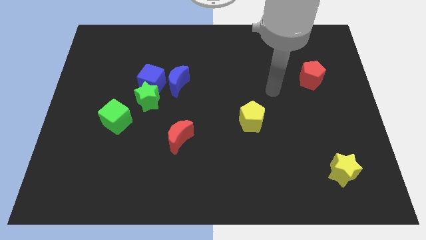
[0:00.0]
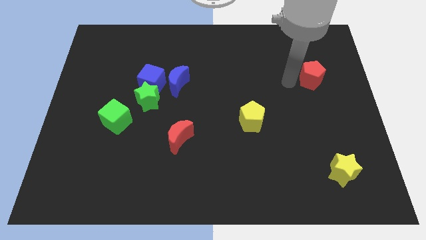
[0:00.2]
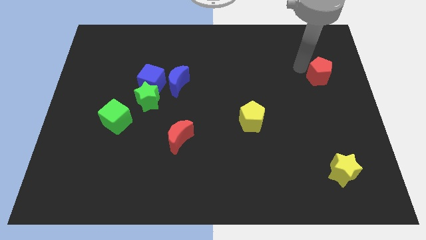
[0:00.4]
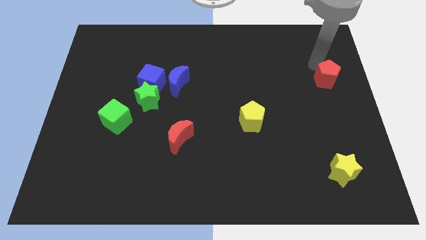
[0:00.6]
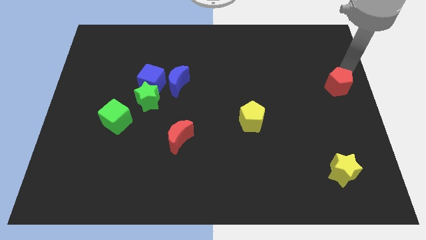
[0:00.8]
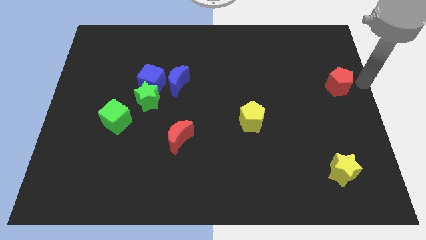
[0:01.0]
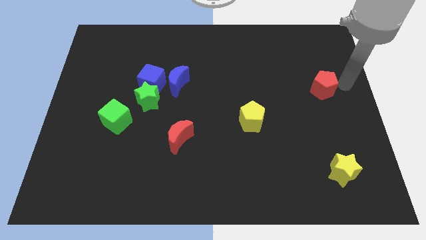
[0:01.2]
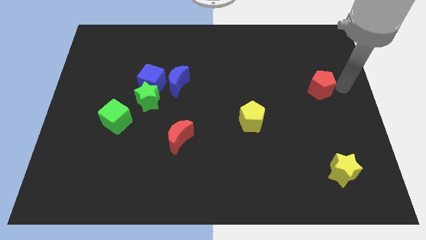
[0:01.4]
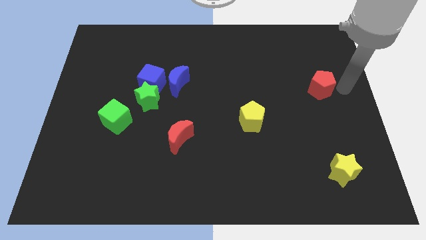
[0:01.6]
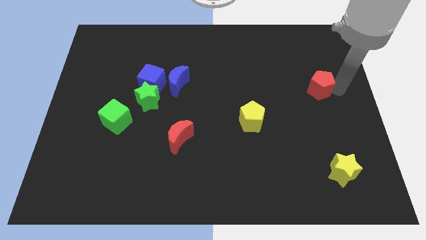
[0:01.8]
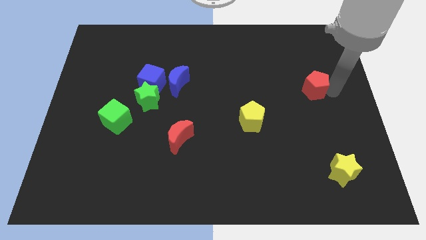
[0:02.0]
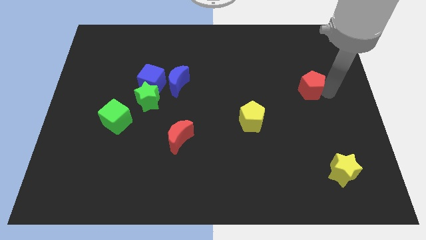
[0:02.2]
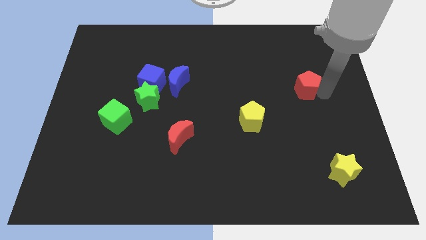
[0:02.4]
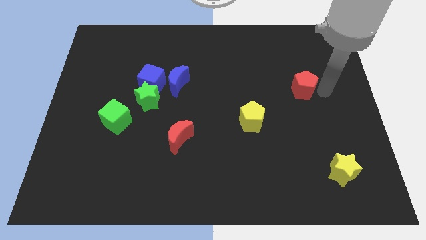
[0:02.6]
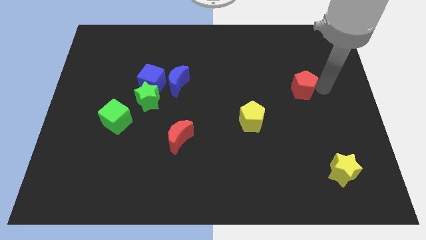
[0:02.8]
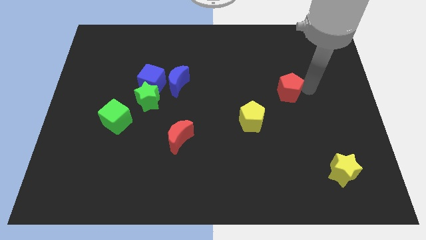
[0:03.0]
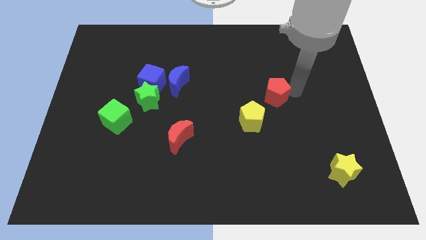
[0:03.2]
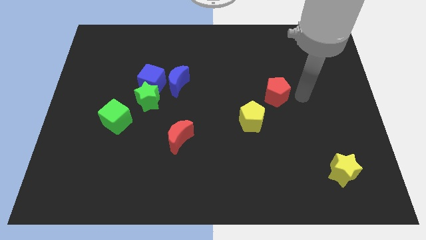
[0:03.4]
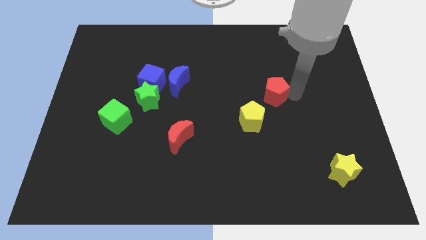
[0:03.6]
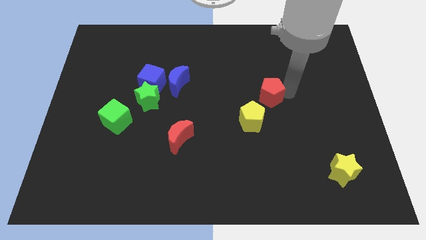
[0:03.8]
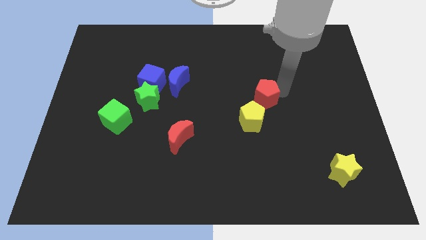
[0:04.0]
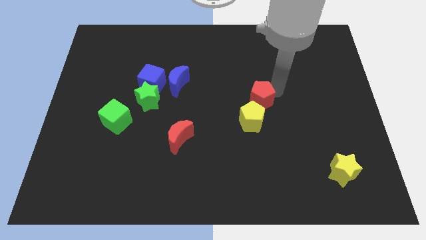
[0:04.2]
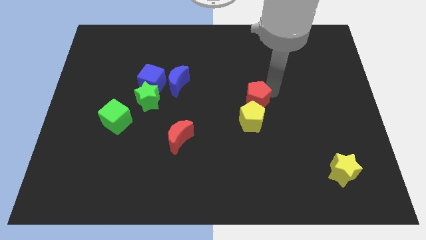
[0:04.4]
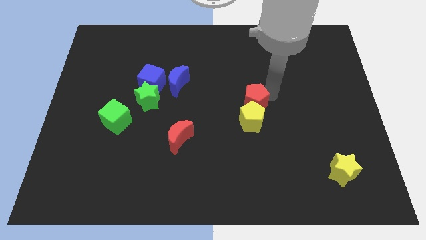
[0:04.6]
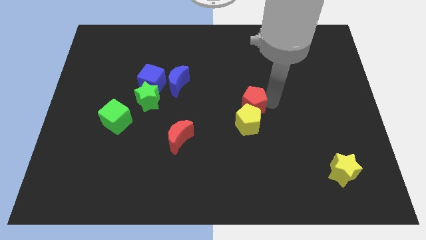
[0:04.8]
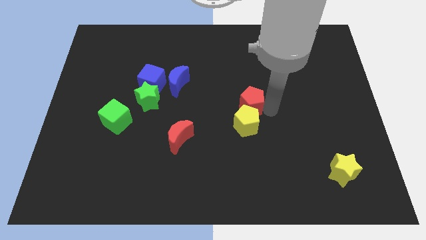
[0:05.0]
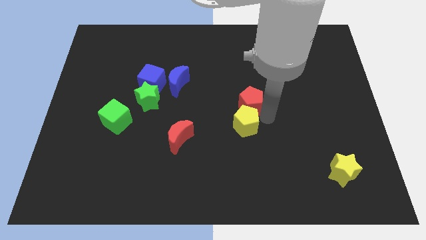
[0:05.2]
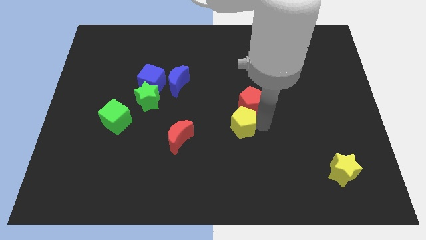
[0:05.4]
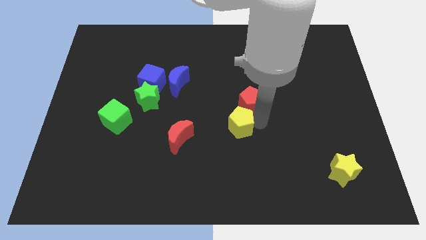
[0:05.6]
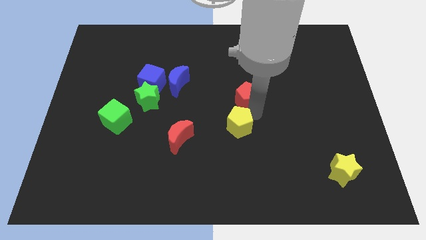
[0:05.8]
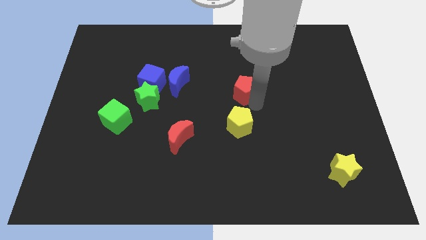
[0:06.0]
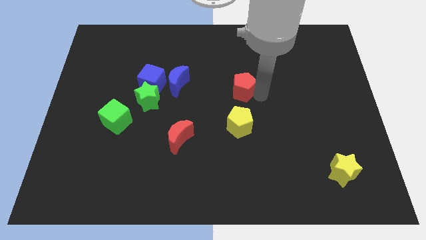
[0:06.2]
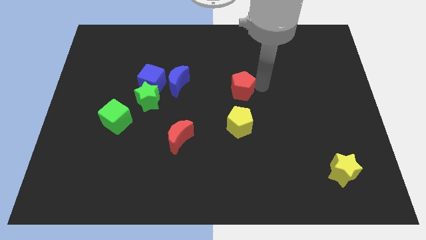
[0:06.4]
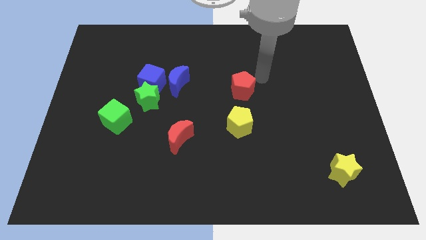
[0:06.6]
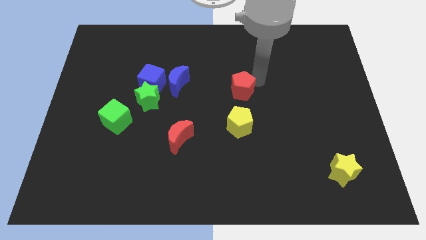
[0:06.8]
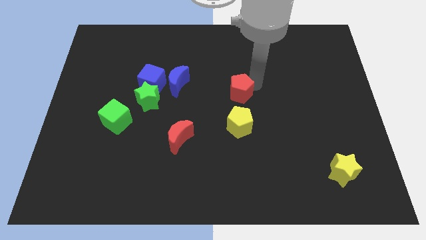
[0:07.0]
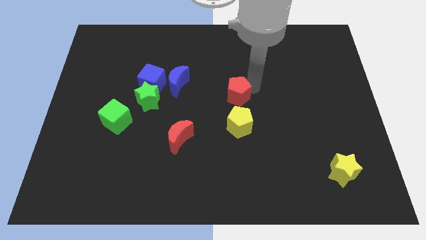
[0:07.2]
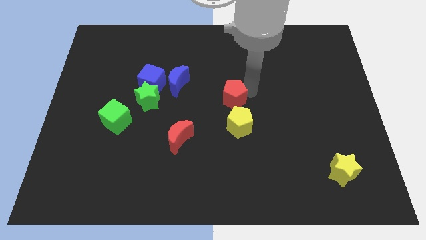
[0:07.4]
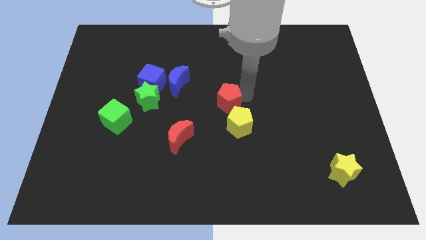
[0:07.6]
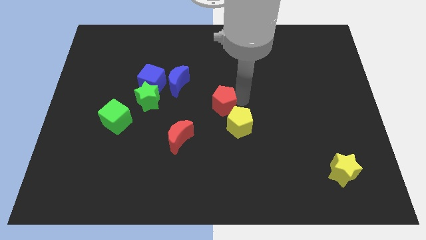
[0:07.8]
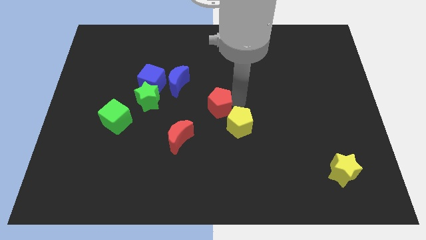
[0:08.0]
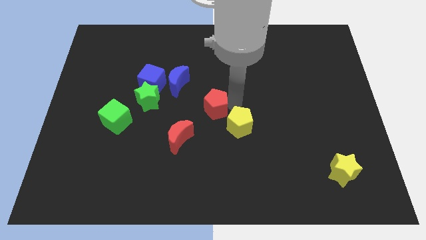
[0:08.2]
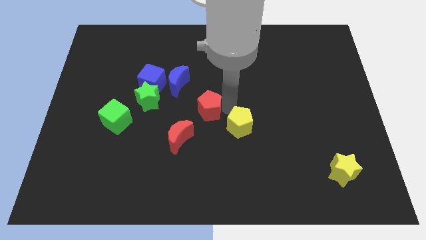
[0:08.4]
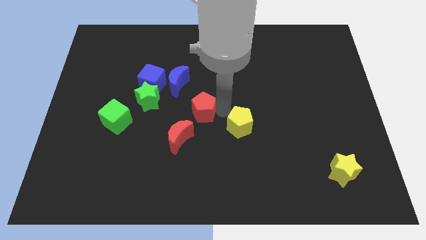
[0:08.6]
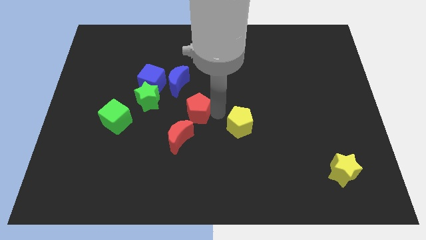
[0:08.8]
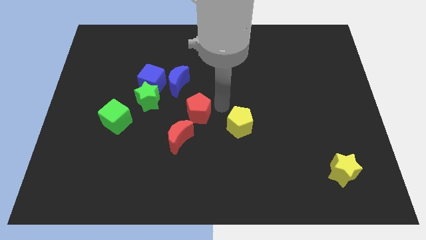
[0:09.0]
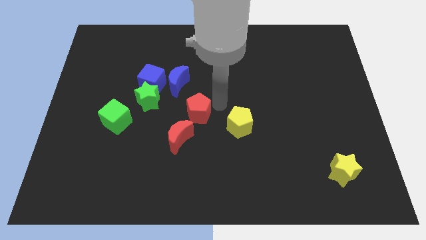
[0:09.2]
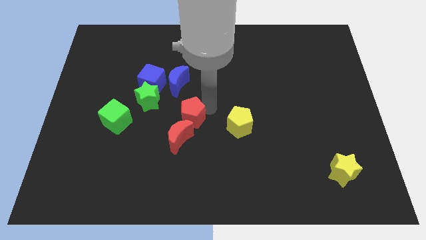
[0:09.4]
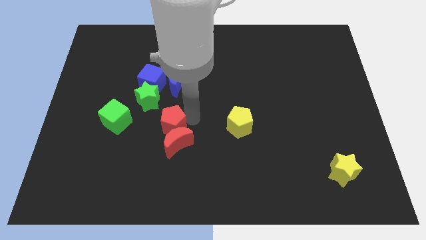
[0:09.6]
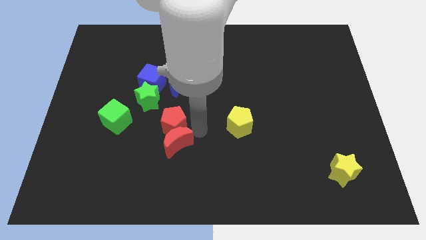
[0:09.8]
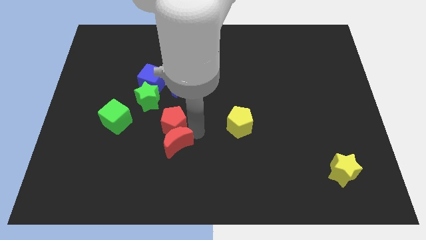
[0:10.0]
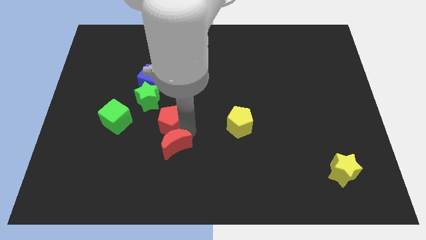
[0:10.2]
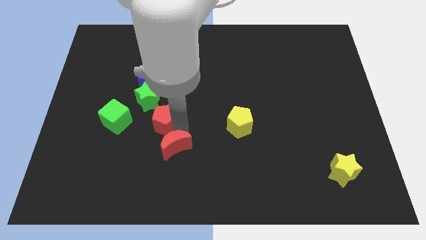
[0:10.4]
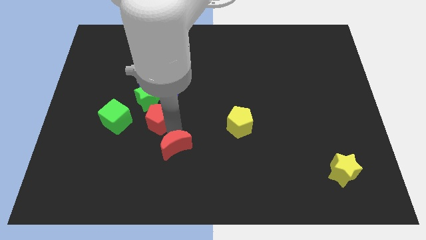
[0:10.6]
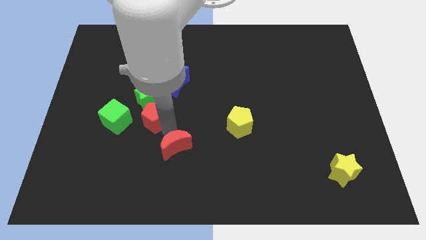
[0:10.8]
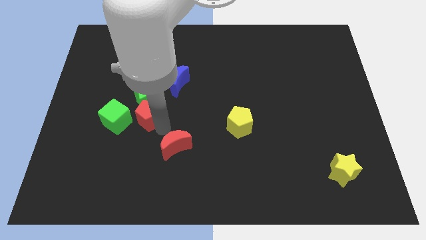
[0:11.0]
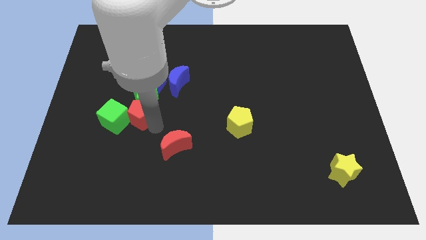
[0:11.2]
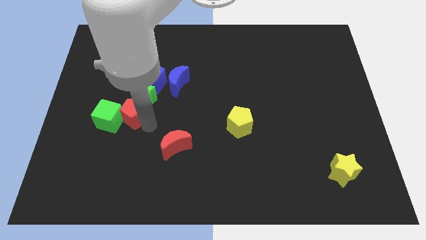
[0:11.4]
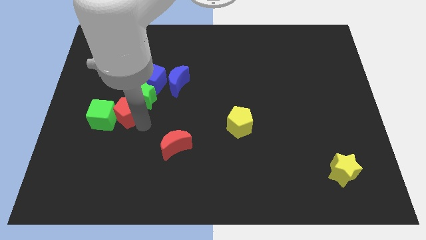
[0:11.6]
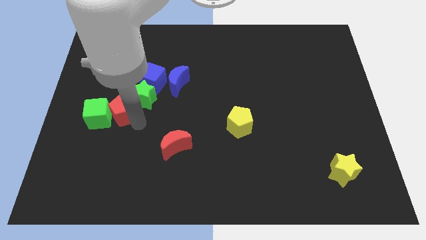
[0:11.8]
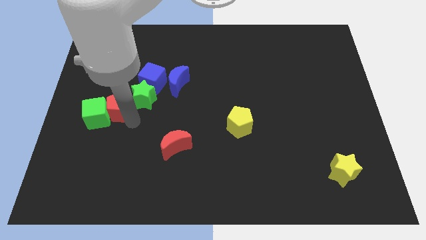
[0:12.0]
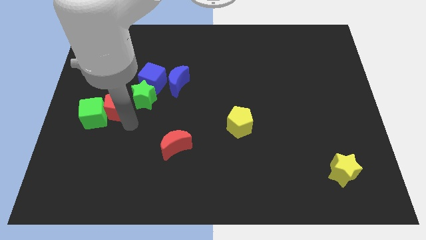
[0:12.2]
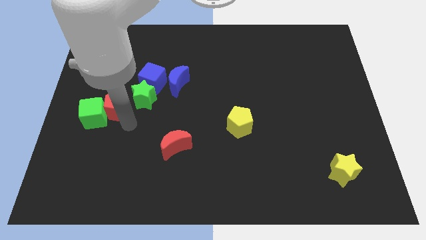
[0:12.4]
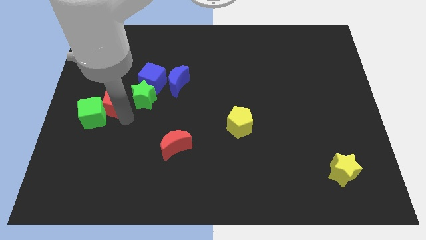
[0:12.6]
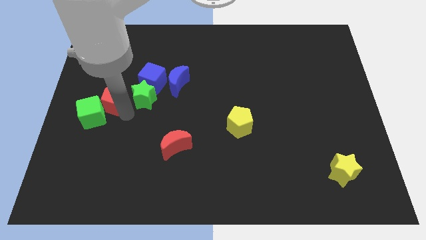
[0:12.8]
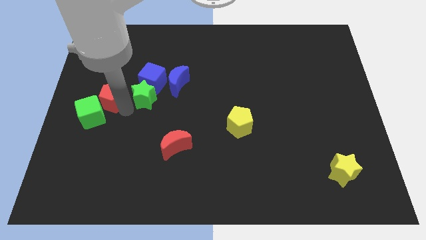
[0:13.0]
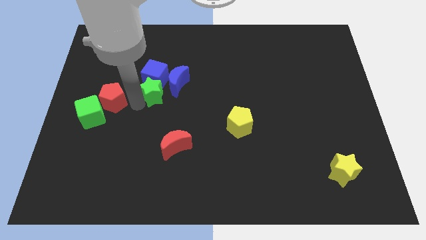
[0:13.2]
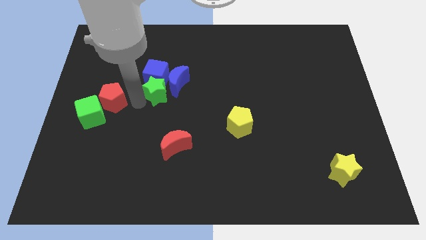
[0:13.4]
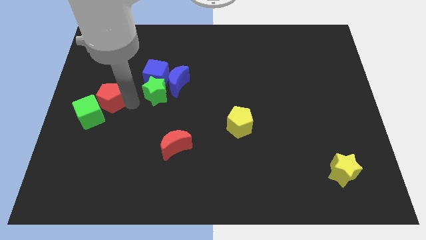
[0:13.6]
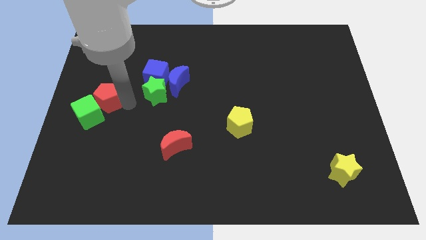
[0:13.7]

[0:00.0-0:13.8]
push the red pentagon to the left side

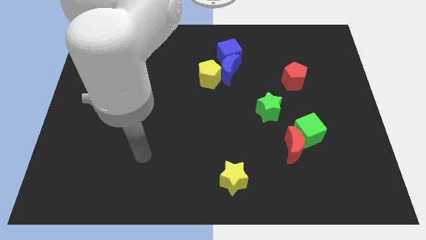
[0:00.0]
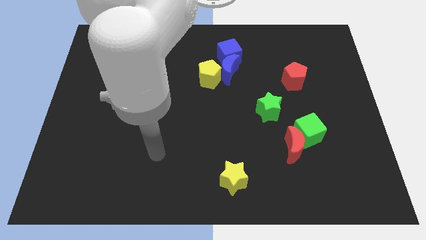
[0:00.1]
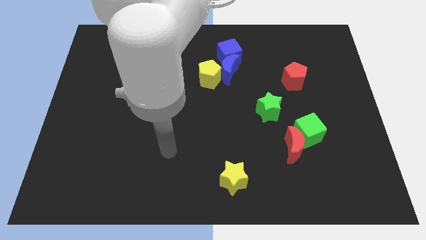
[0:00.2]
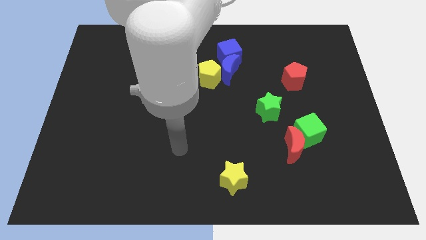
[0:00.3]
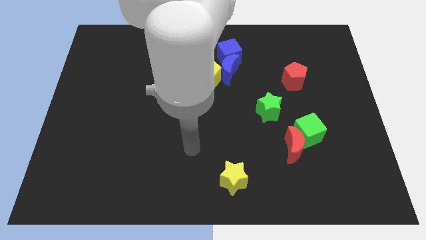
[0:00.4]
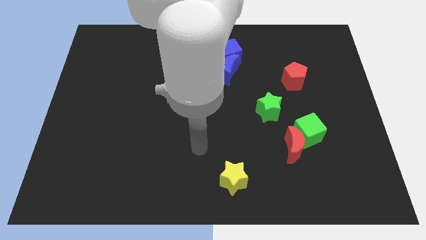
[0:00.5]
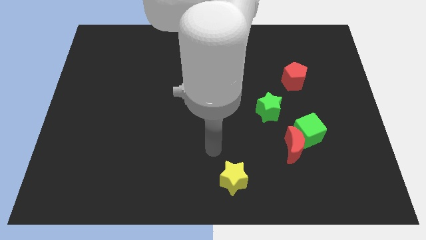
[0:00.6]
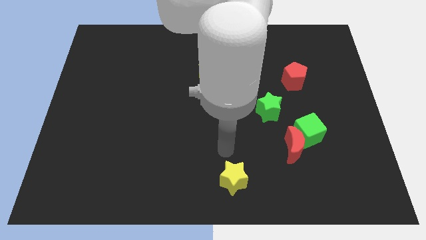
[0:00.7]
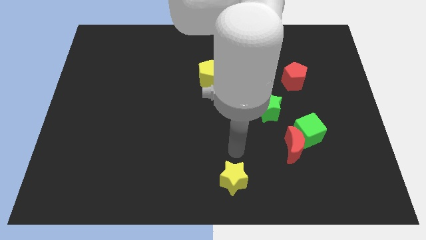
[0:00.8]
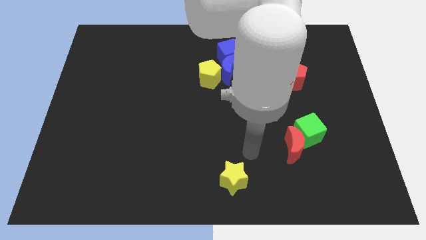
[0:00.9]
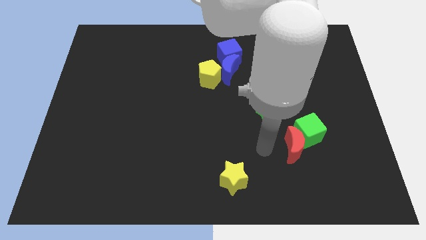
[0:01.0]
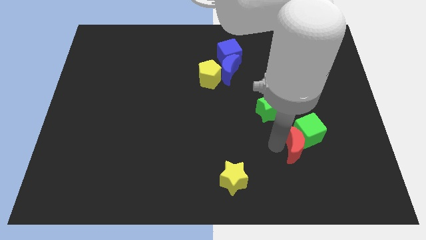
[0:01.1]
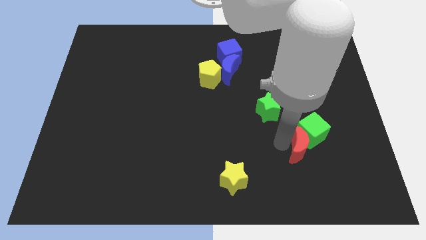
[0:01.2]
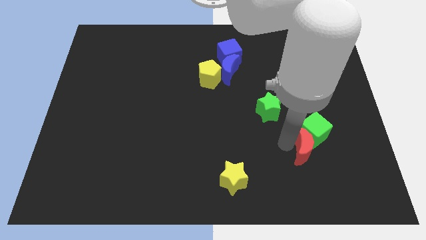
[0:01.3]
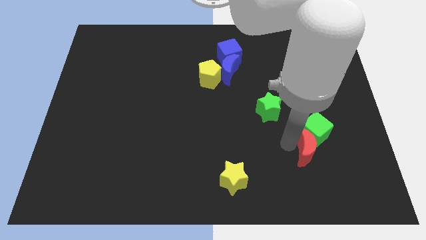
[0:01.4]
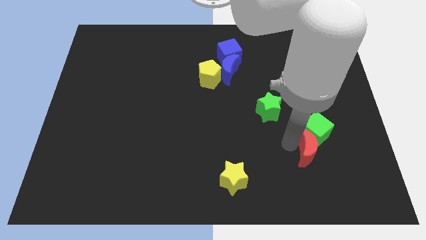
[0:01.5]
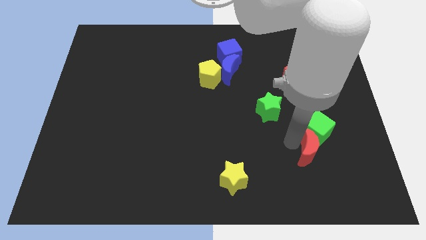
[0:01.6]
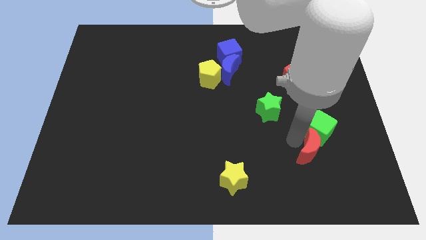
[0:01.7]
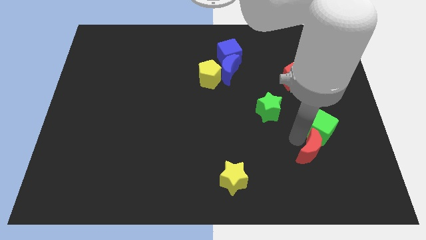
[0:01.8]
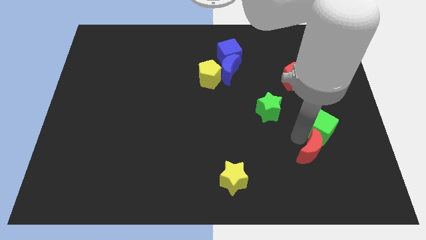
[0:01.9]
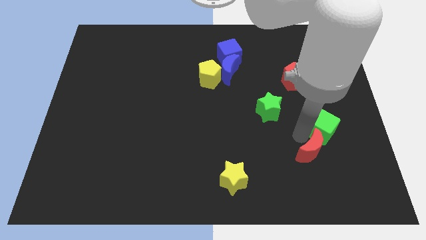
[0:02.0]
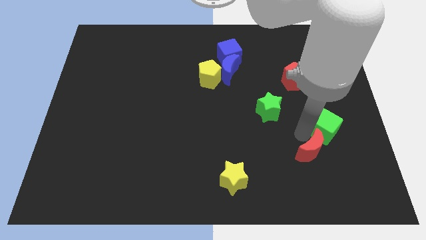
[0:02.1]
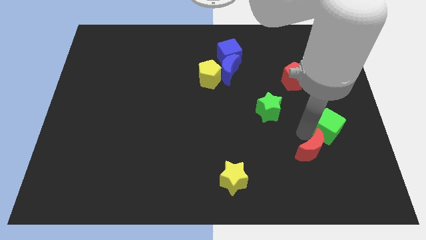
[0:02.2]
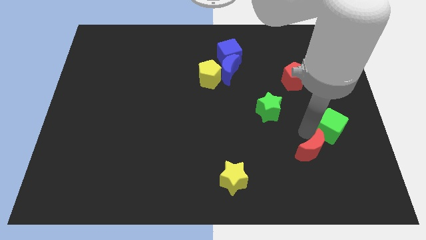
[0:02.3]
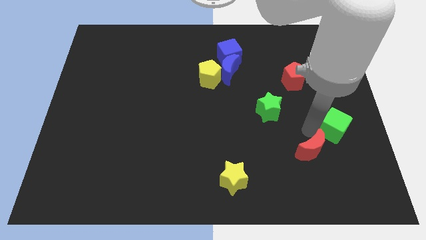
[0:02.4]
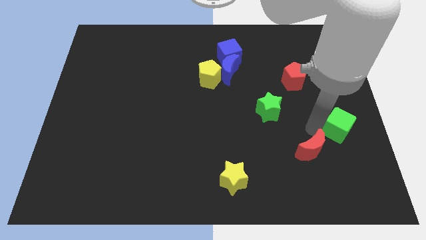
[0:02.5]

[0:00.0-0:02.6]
move the green cube to the right side
